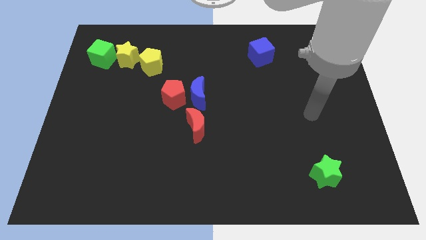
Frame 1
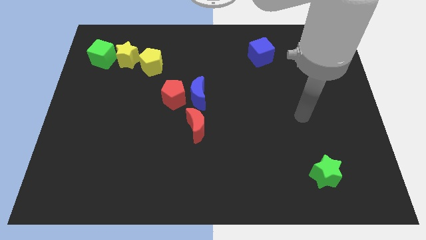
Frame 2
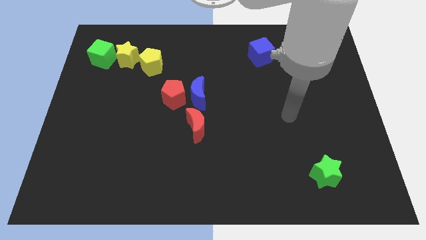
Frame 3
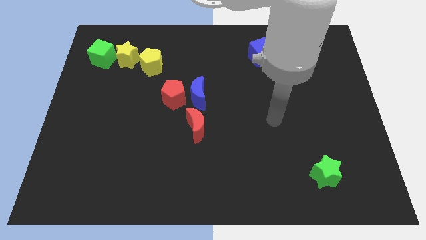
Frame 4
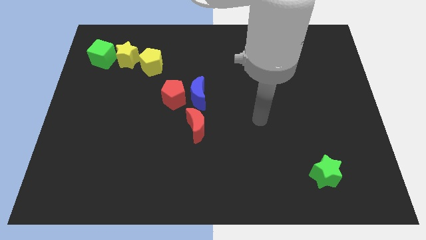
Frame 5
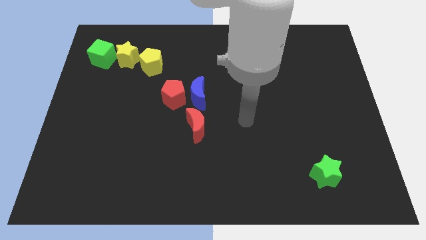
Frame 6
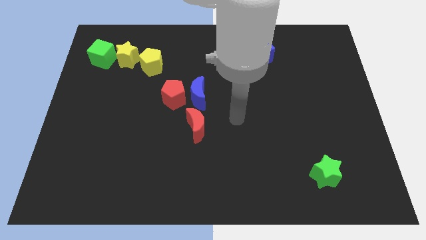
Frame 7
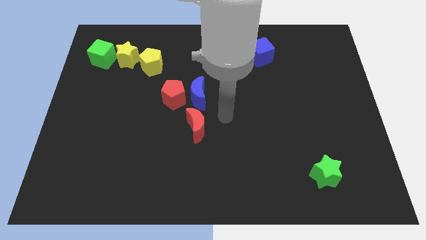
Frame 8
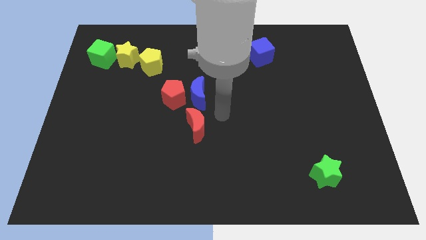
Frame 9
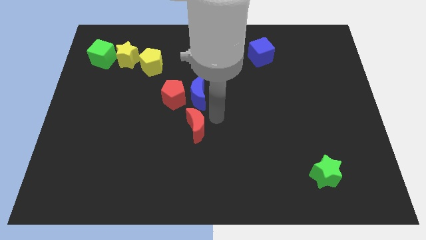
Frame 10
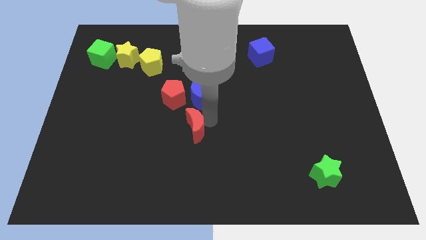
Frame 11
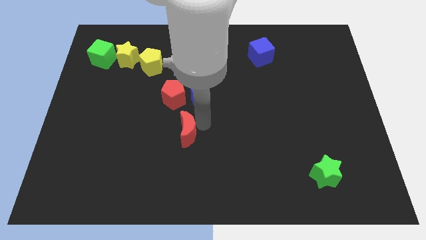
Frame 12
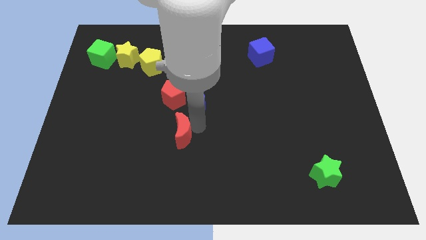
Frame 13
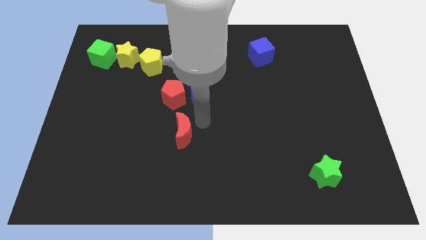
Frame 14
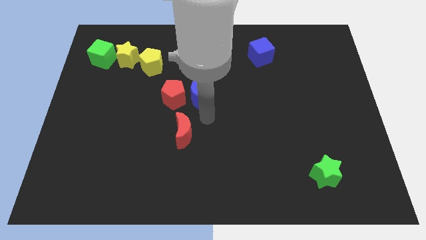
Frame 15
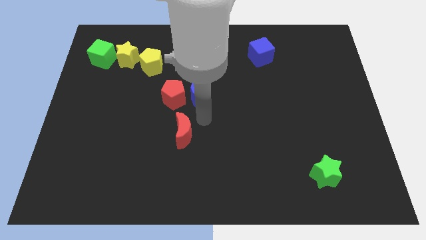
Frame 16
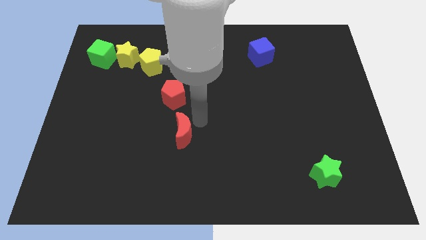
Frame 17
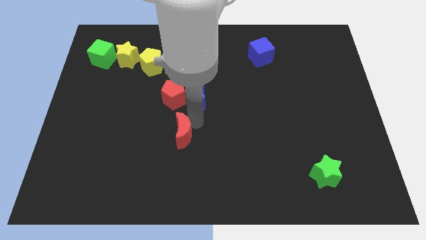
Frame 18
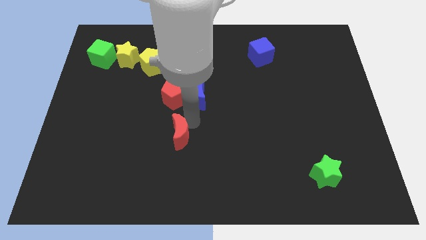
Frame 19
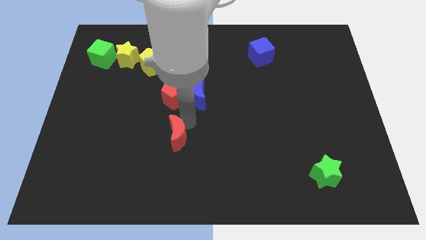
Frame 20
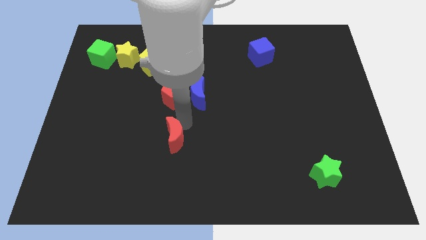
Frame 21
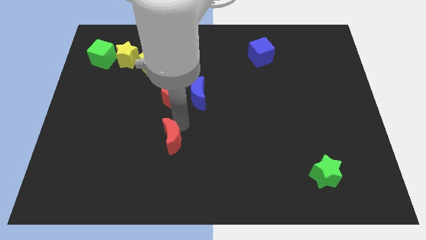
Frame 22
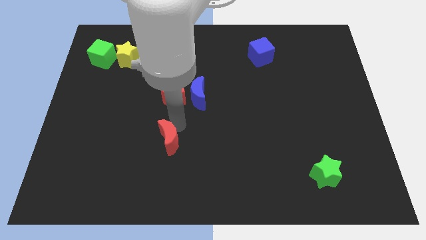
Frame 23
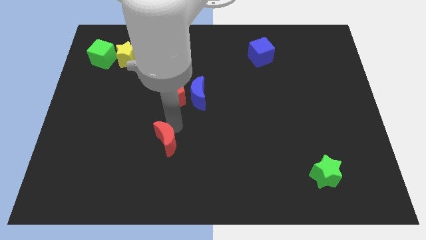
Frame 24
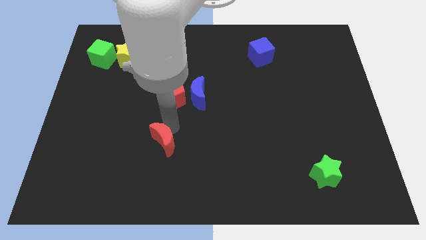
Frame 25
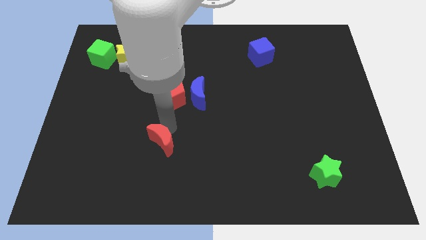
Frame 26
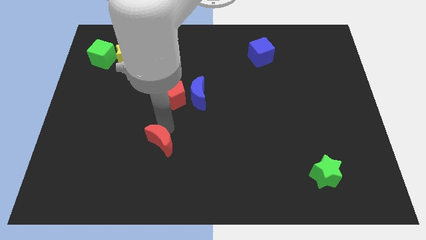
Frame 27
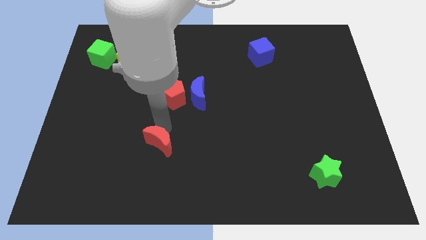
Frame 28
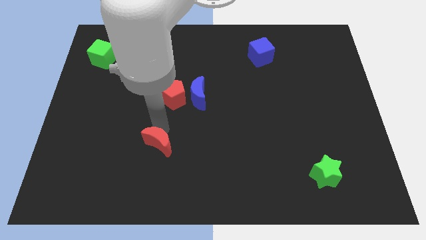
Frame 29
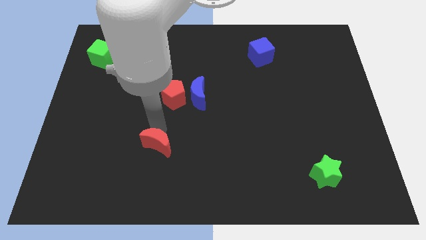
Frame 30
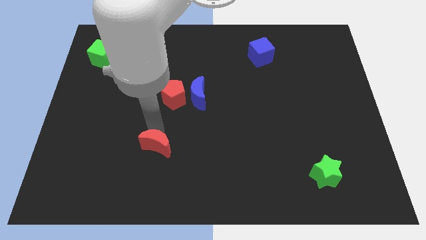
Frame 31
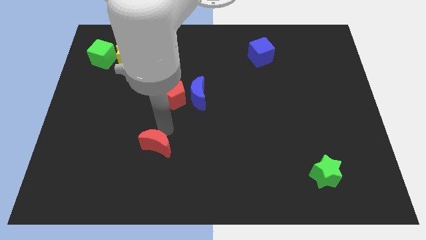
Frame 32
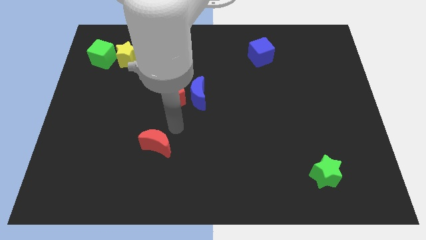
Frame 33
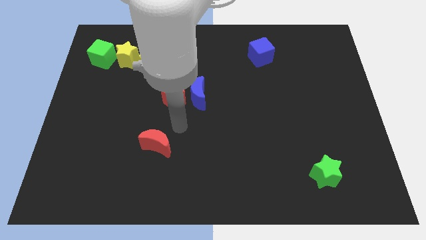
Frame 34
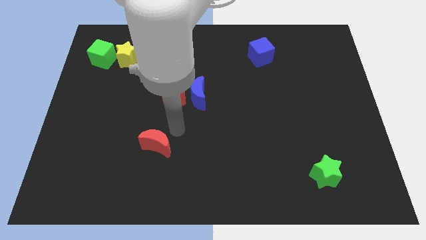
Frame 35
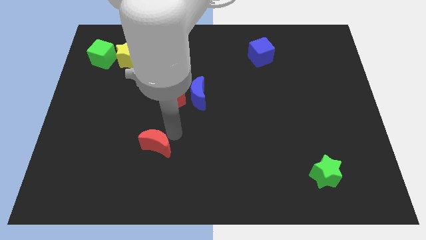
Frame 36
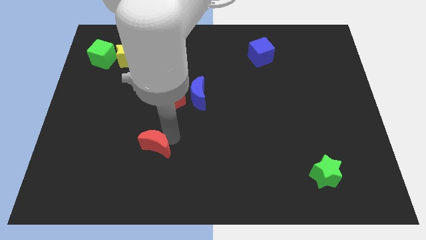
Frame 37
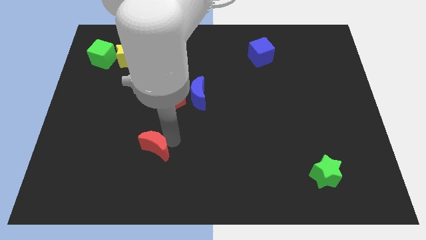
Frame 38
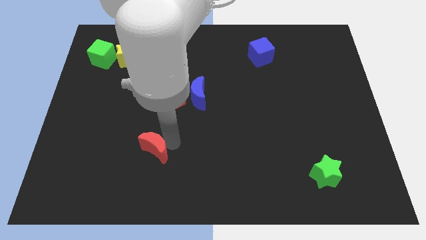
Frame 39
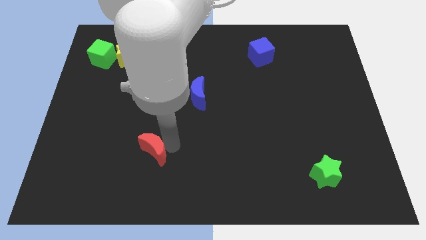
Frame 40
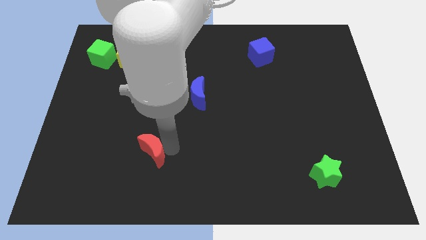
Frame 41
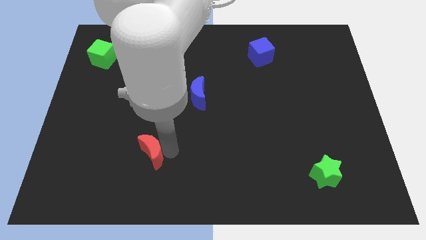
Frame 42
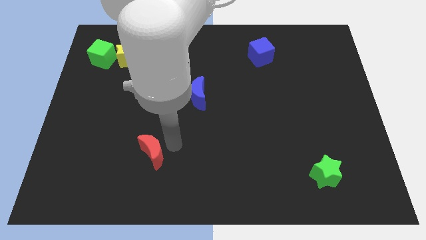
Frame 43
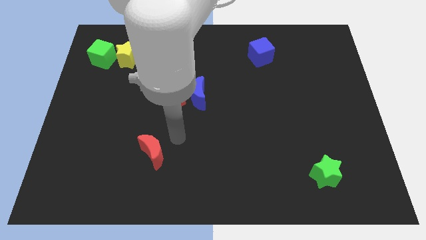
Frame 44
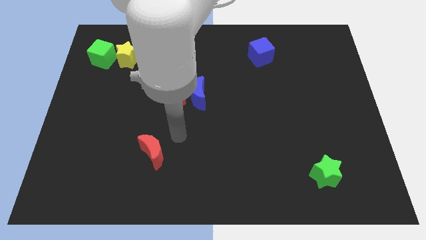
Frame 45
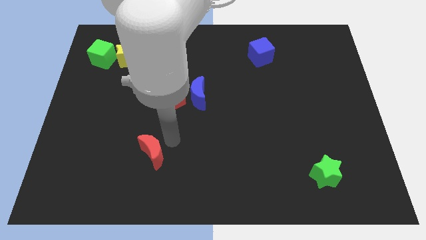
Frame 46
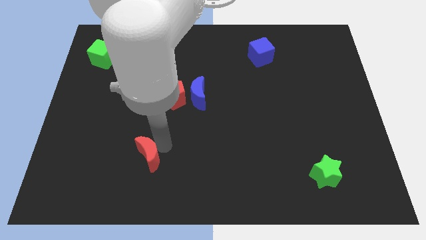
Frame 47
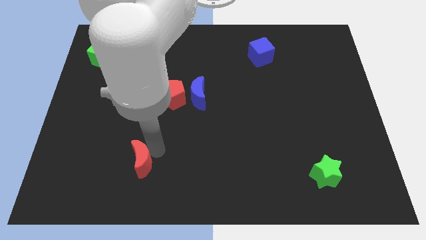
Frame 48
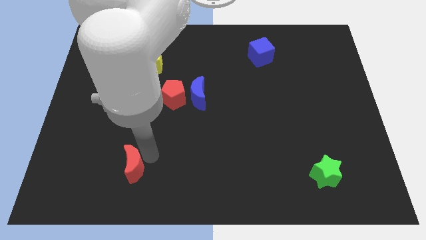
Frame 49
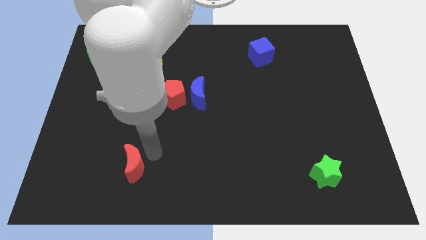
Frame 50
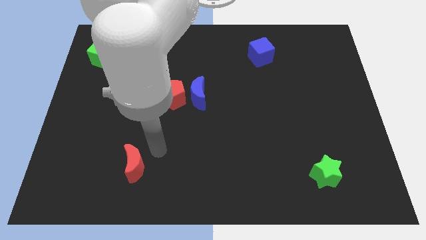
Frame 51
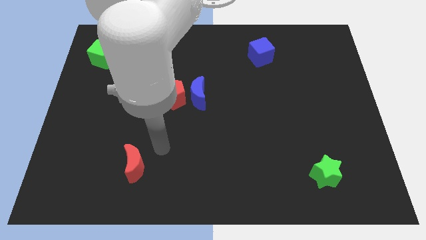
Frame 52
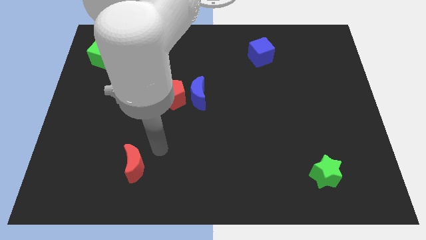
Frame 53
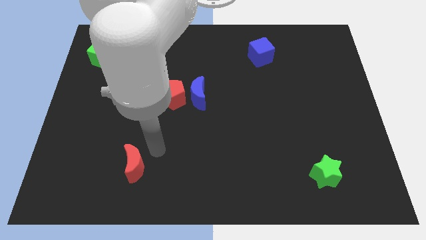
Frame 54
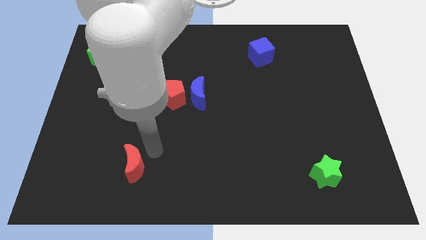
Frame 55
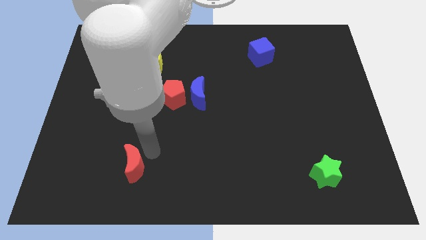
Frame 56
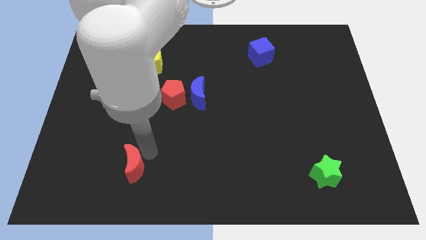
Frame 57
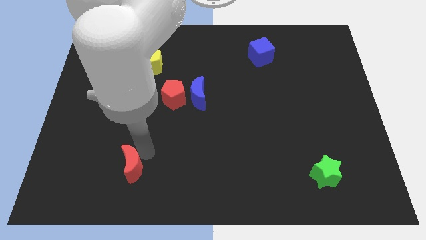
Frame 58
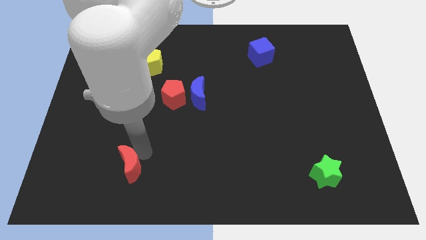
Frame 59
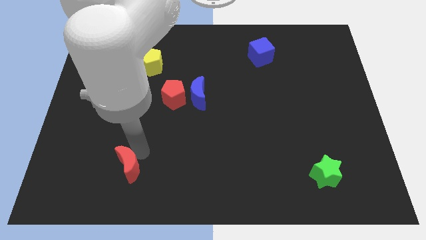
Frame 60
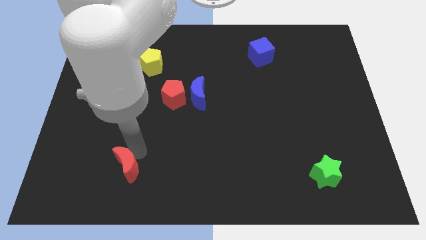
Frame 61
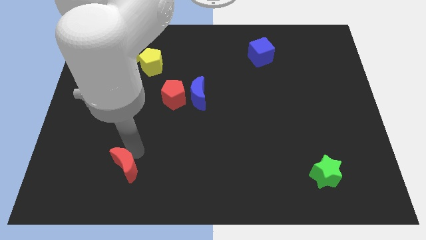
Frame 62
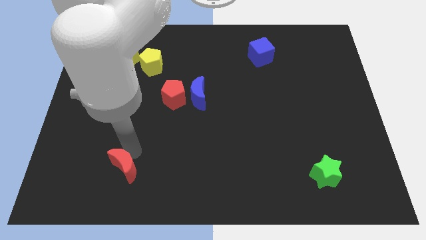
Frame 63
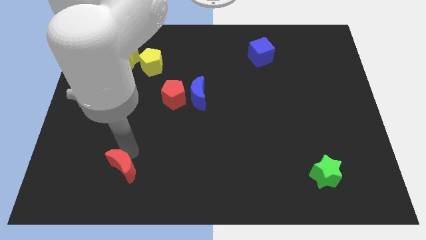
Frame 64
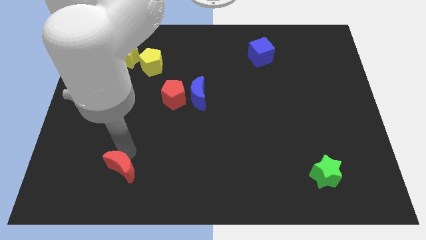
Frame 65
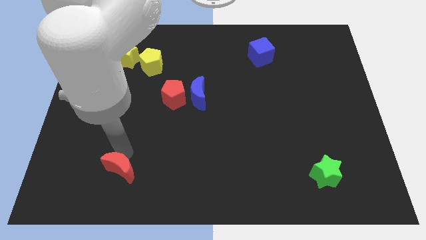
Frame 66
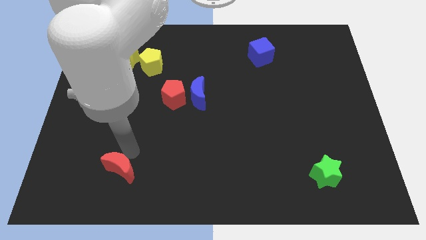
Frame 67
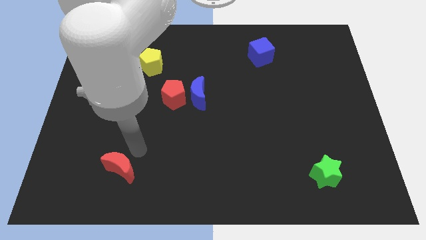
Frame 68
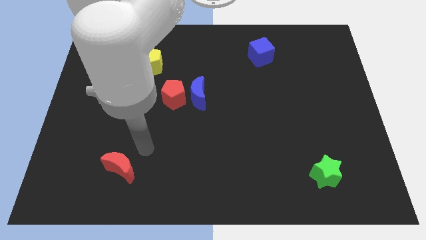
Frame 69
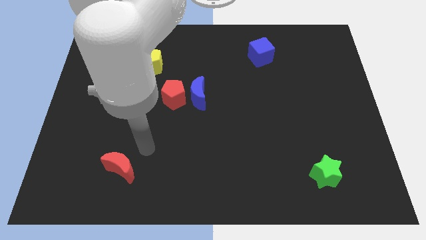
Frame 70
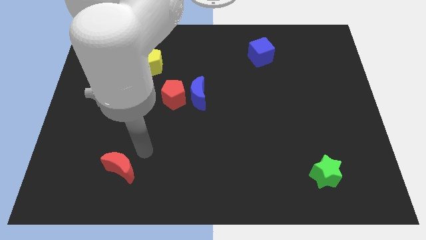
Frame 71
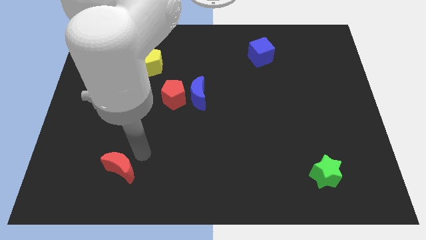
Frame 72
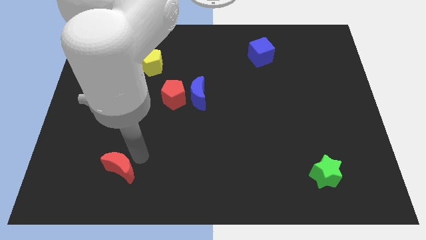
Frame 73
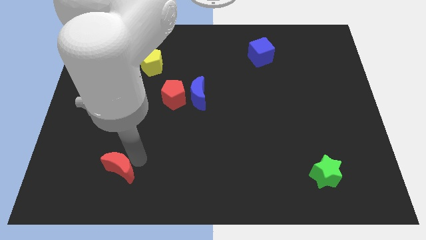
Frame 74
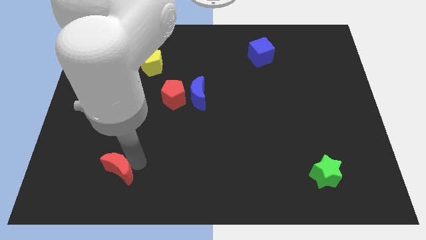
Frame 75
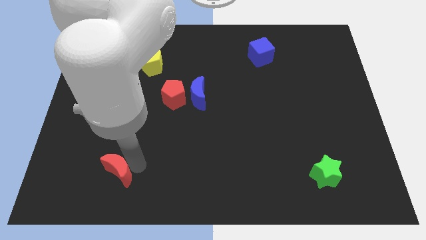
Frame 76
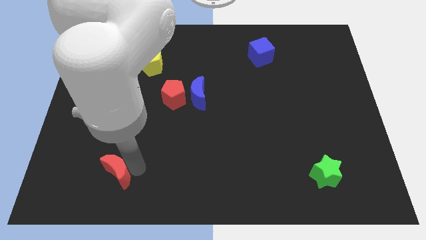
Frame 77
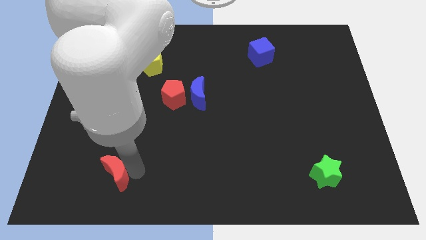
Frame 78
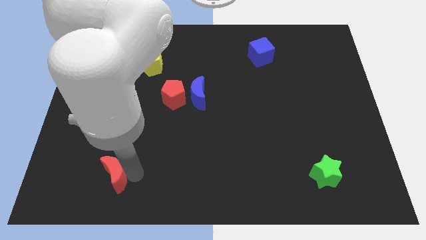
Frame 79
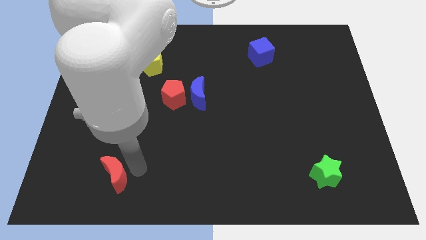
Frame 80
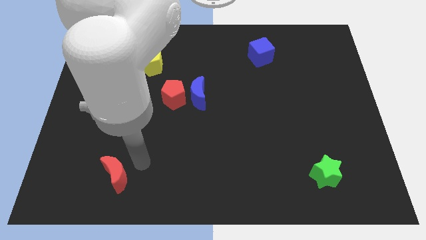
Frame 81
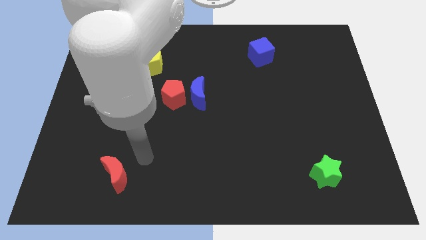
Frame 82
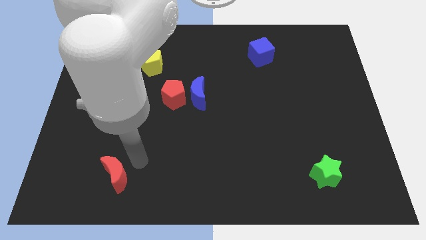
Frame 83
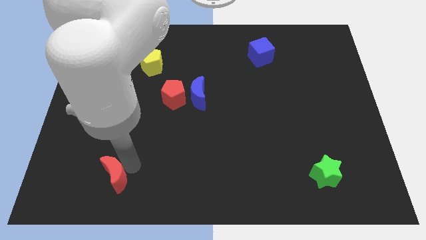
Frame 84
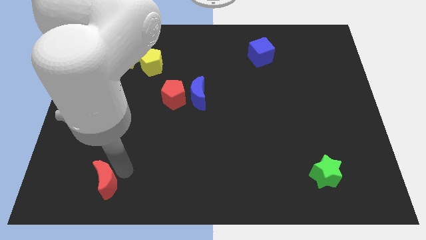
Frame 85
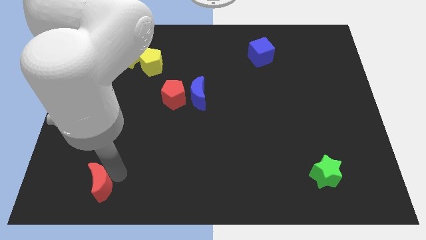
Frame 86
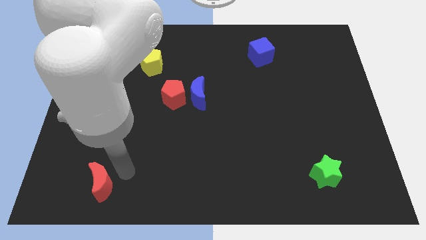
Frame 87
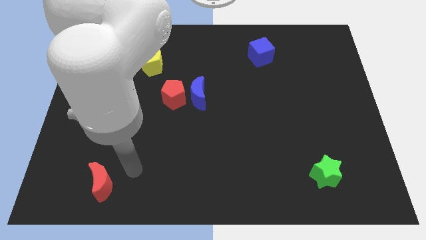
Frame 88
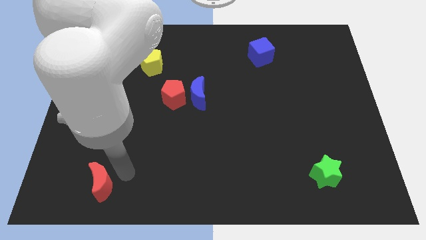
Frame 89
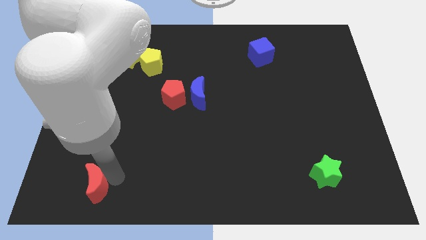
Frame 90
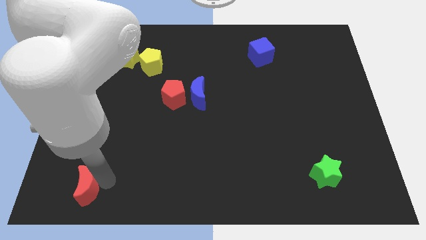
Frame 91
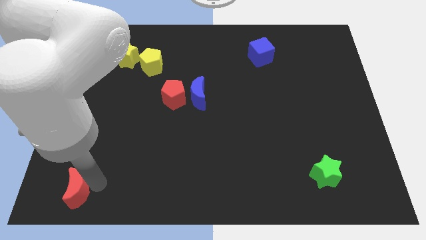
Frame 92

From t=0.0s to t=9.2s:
put the red moon to the bottom left corner
